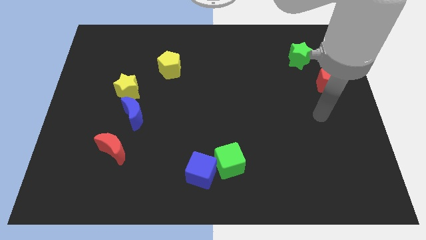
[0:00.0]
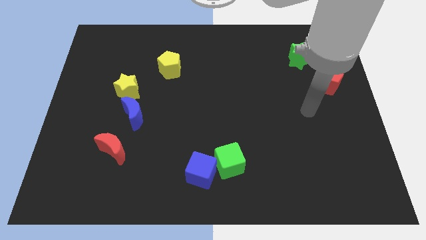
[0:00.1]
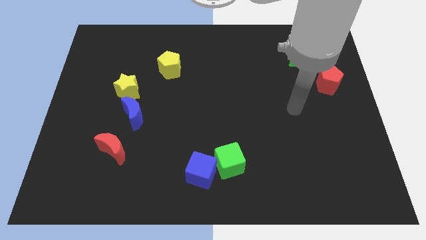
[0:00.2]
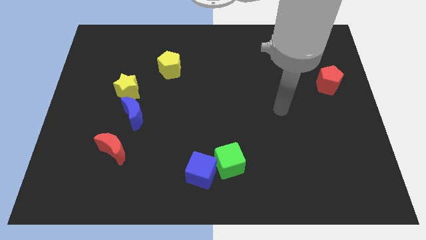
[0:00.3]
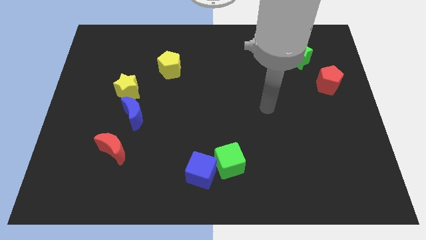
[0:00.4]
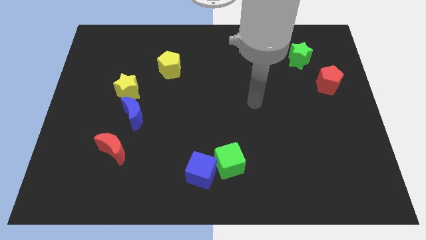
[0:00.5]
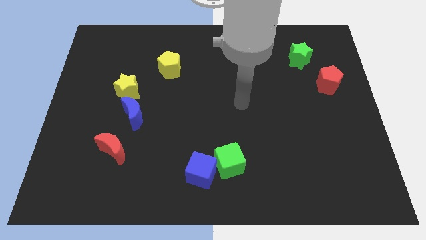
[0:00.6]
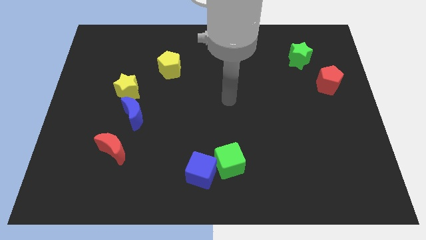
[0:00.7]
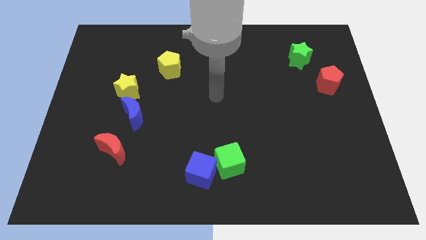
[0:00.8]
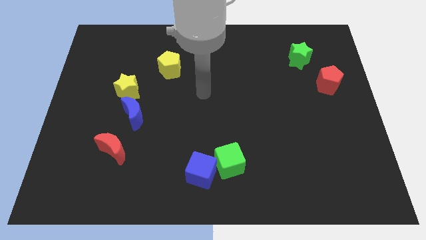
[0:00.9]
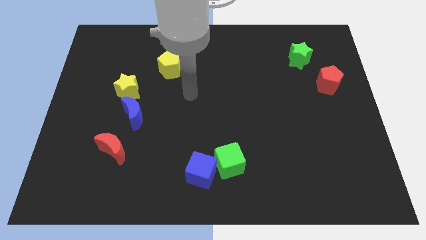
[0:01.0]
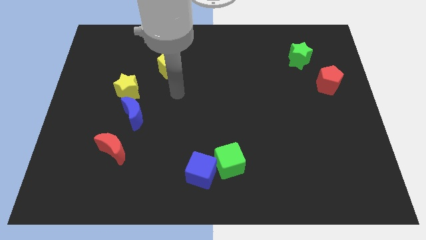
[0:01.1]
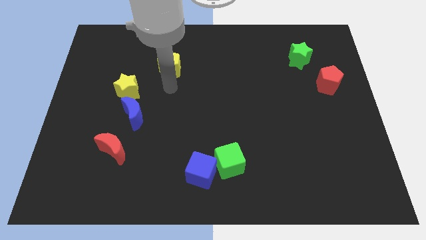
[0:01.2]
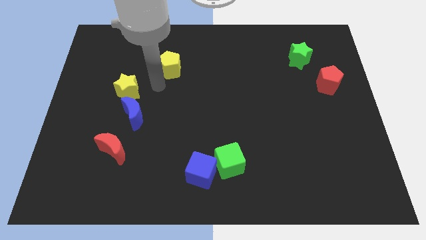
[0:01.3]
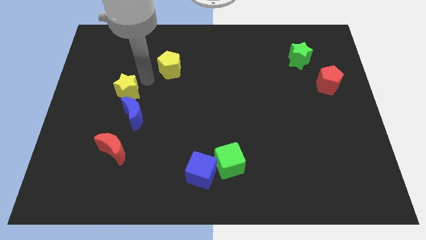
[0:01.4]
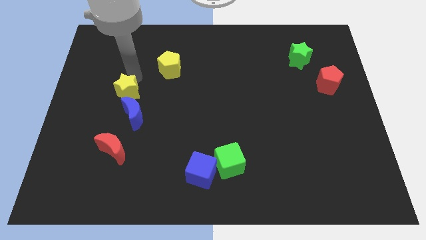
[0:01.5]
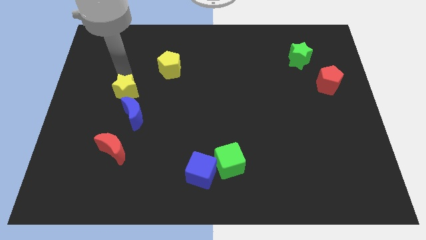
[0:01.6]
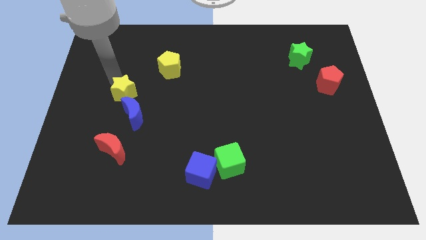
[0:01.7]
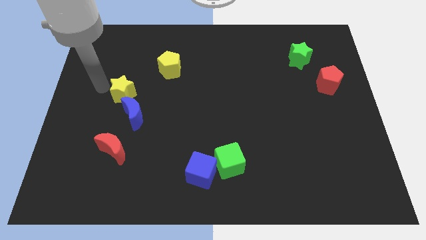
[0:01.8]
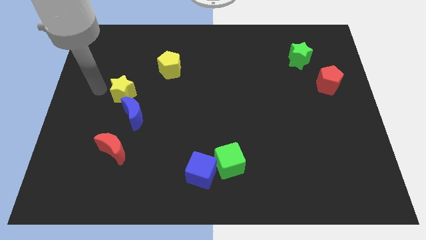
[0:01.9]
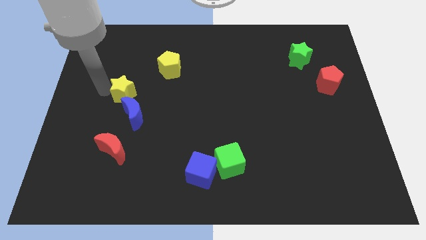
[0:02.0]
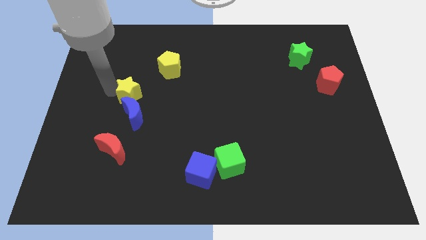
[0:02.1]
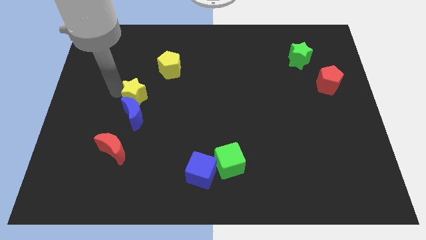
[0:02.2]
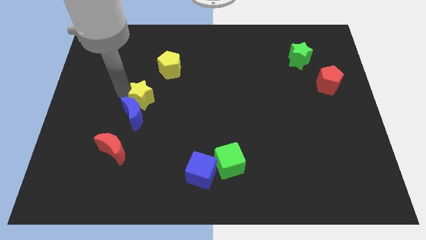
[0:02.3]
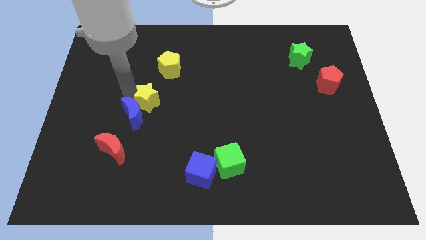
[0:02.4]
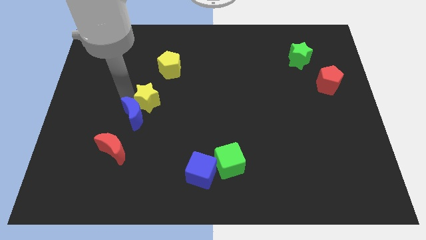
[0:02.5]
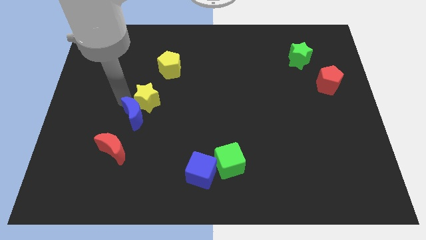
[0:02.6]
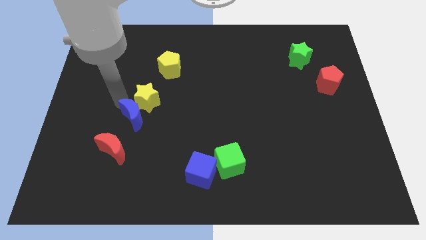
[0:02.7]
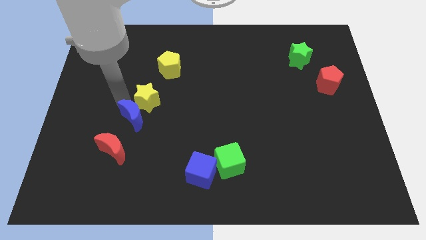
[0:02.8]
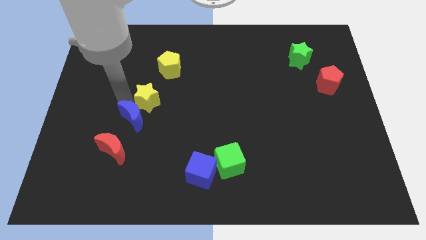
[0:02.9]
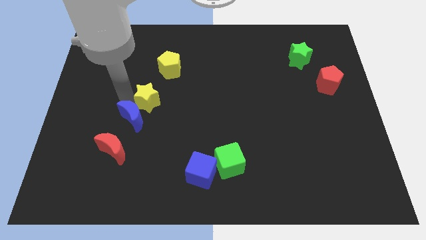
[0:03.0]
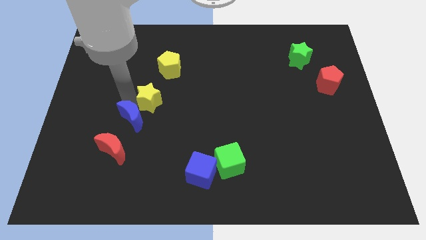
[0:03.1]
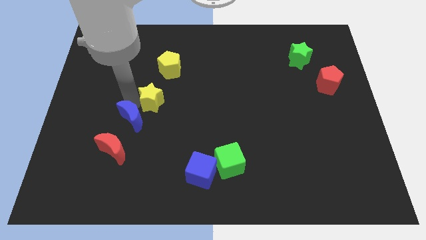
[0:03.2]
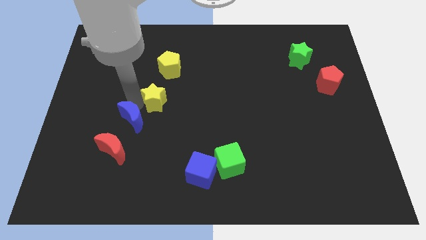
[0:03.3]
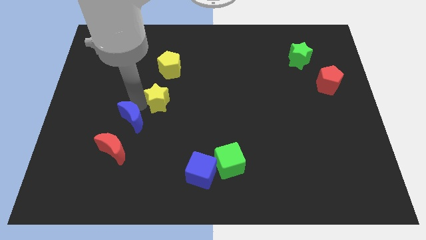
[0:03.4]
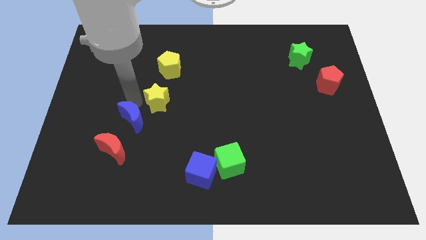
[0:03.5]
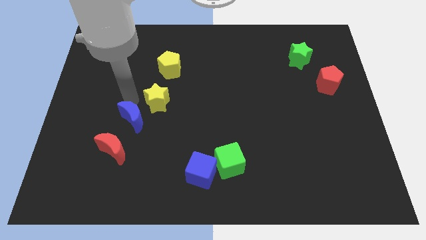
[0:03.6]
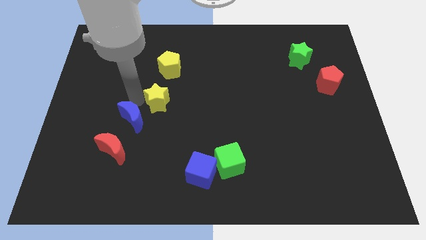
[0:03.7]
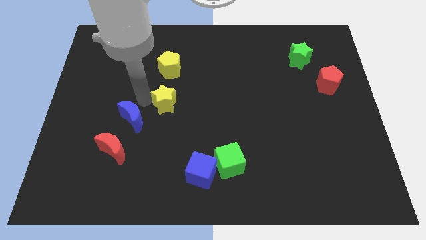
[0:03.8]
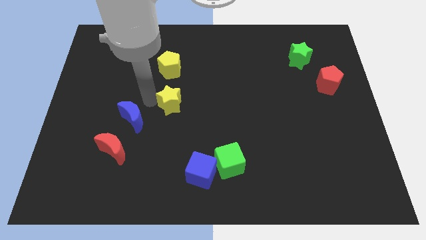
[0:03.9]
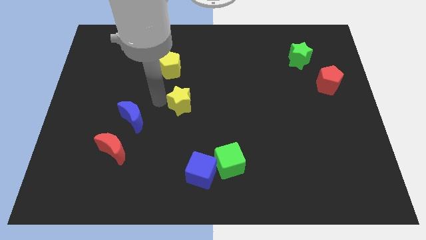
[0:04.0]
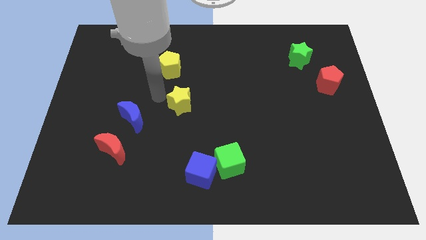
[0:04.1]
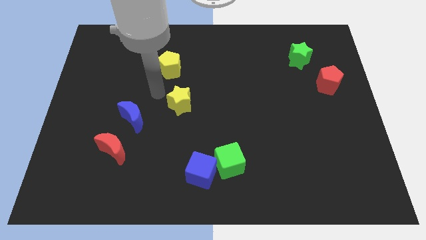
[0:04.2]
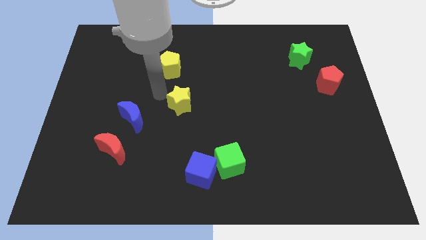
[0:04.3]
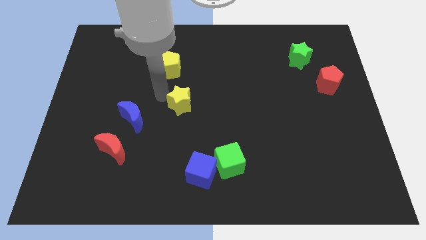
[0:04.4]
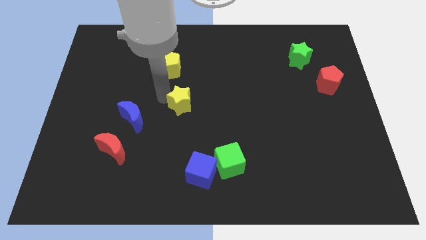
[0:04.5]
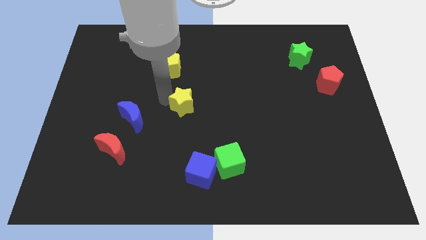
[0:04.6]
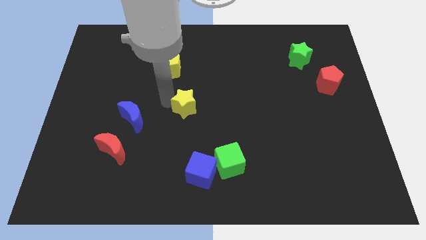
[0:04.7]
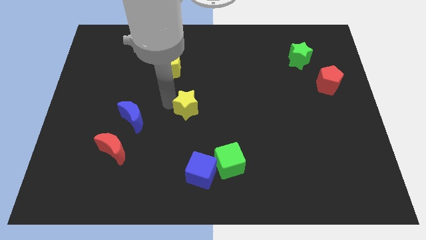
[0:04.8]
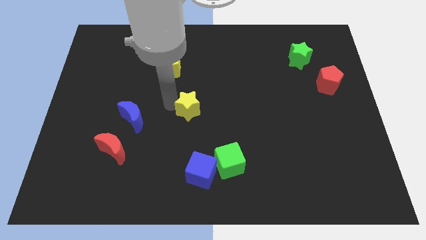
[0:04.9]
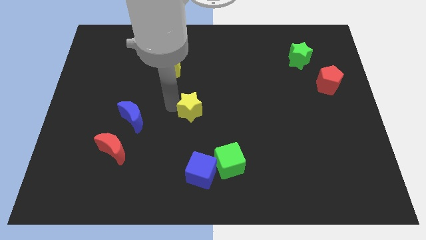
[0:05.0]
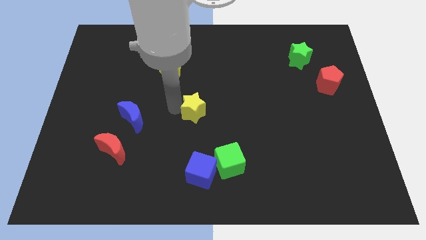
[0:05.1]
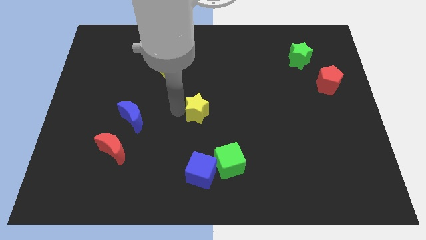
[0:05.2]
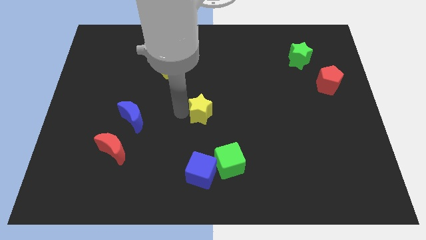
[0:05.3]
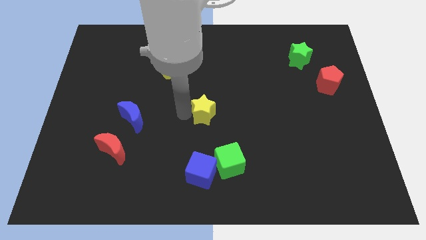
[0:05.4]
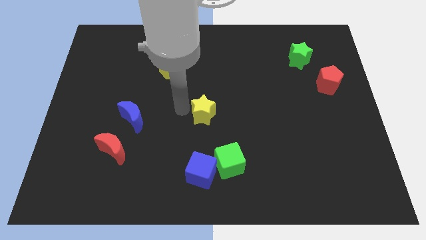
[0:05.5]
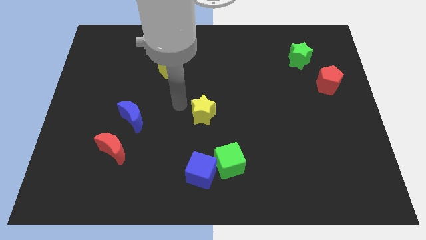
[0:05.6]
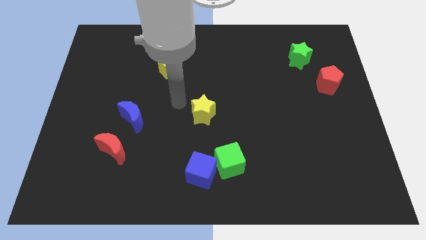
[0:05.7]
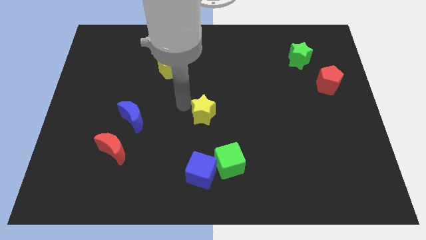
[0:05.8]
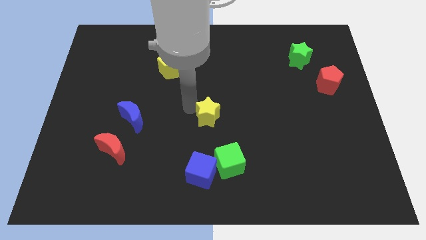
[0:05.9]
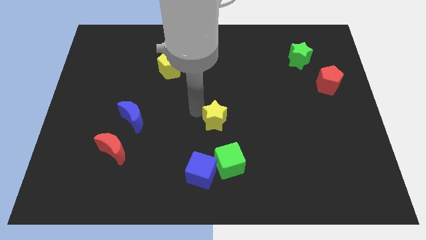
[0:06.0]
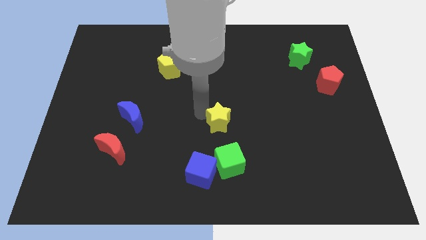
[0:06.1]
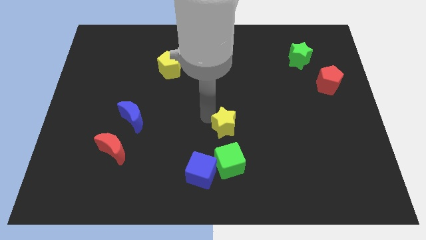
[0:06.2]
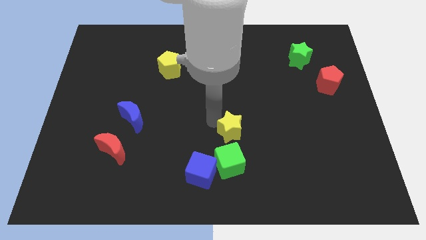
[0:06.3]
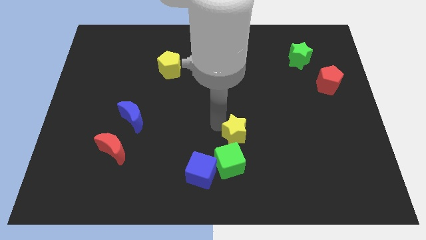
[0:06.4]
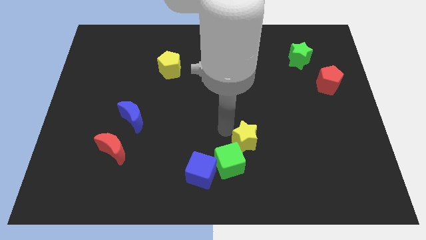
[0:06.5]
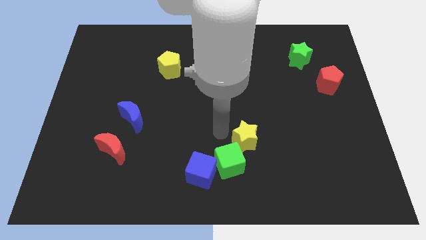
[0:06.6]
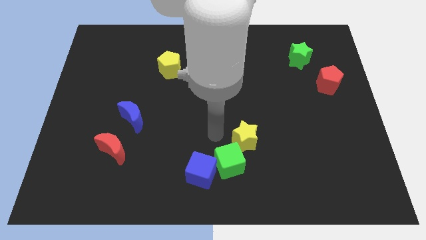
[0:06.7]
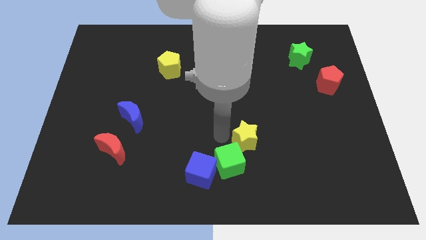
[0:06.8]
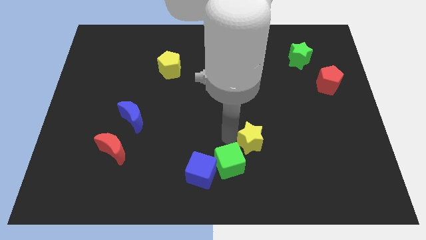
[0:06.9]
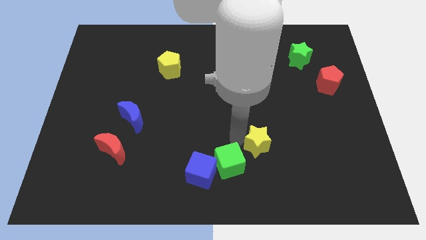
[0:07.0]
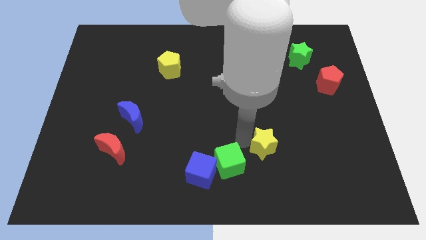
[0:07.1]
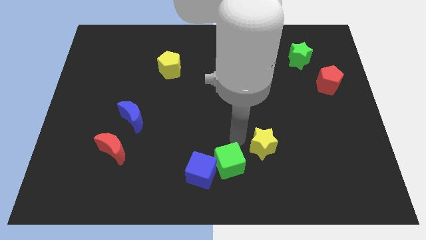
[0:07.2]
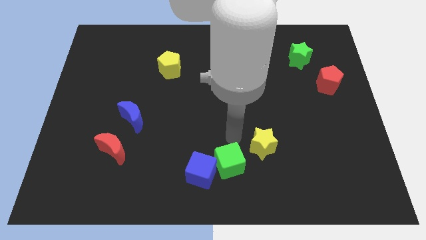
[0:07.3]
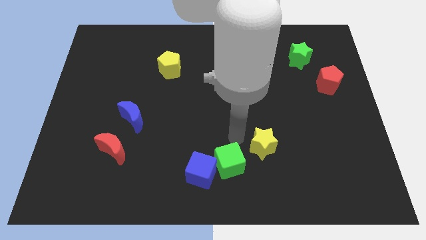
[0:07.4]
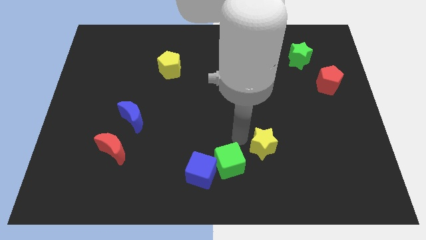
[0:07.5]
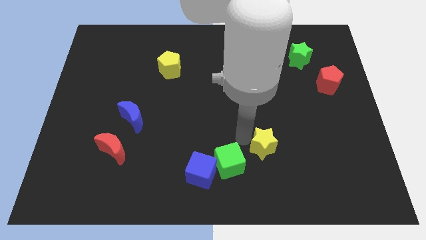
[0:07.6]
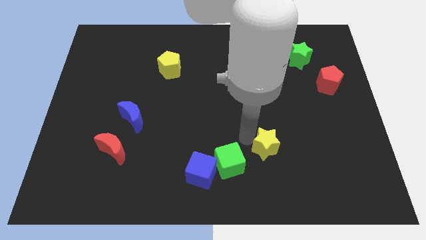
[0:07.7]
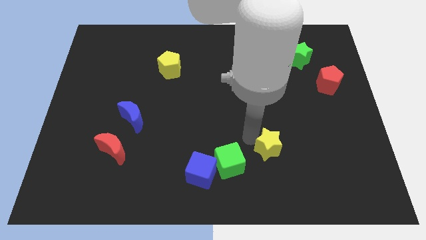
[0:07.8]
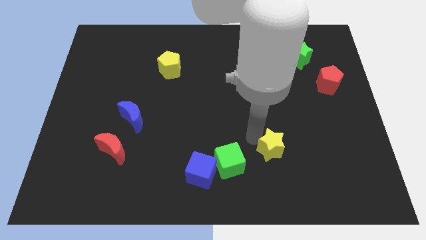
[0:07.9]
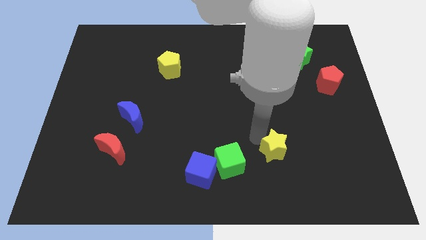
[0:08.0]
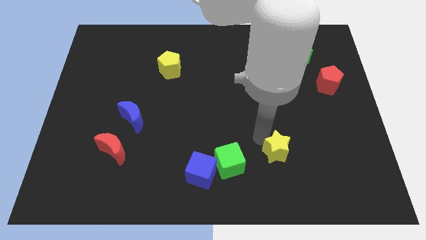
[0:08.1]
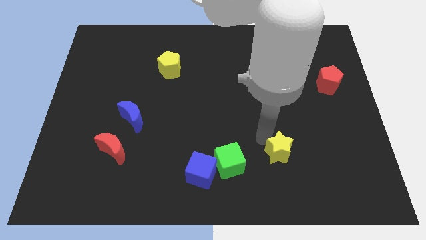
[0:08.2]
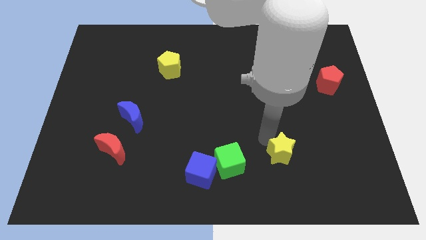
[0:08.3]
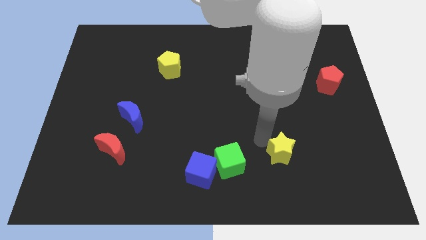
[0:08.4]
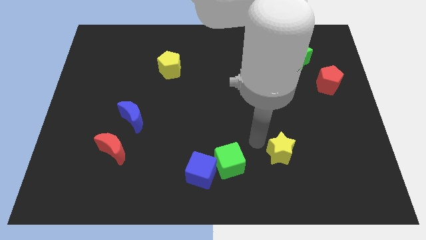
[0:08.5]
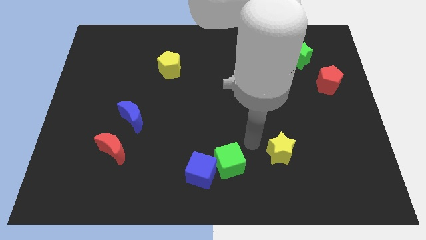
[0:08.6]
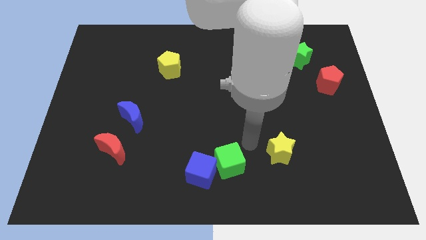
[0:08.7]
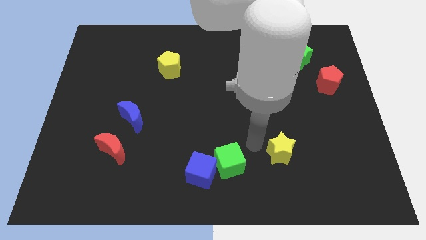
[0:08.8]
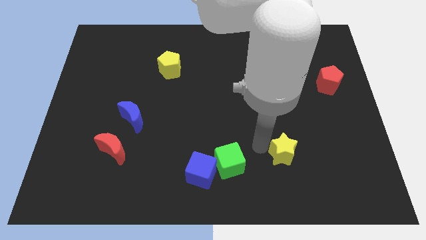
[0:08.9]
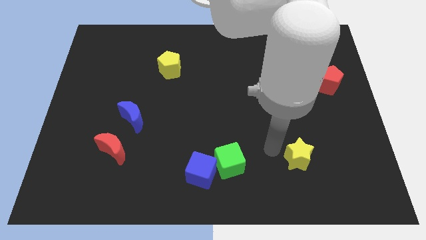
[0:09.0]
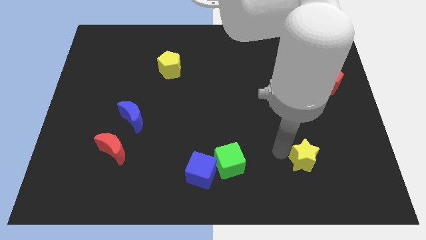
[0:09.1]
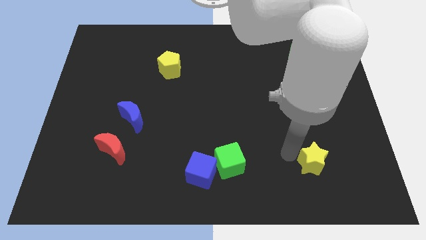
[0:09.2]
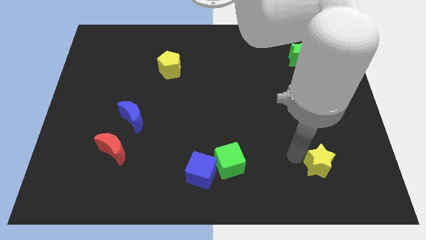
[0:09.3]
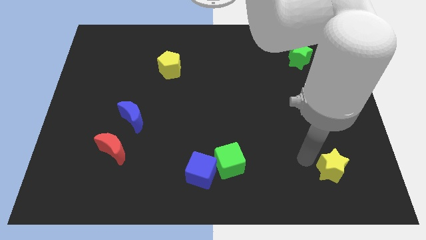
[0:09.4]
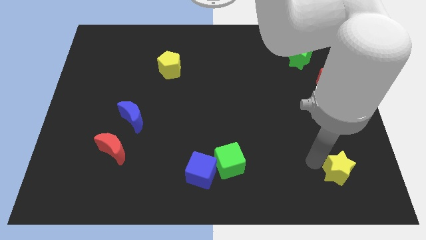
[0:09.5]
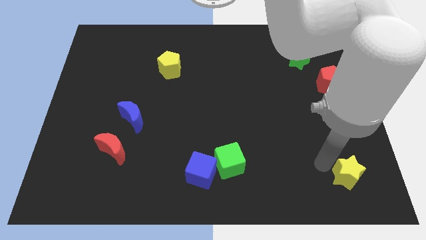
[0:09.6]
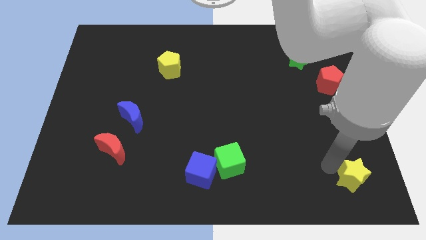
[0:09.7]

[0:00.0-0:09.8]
put the yellow star to the lower right corner
